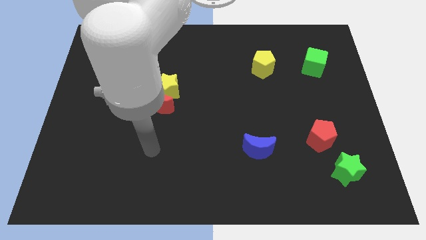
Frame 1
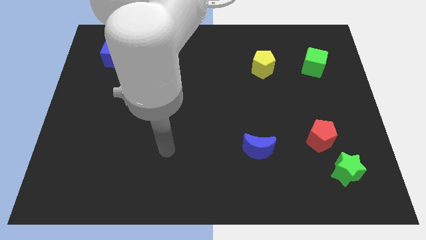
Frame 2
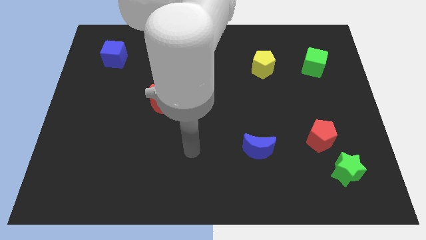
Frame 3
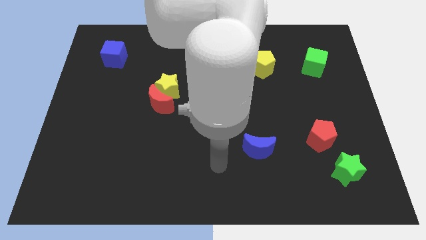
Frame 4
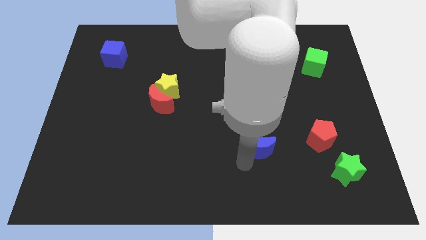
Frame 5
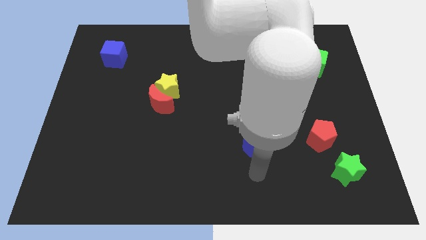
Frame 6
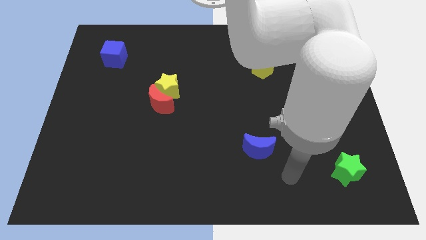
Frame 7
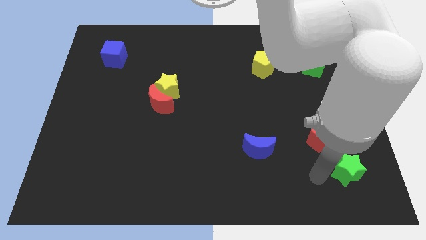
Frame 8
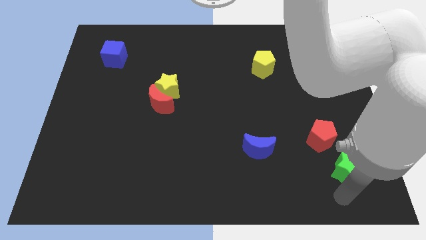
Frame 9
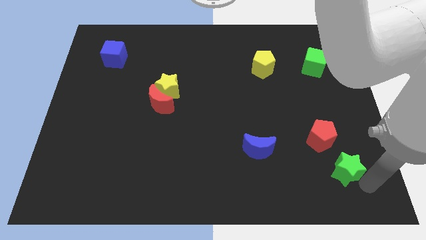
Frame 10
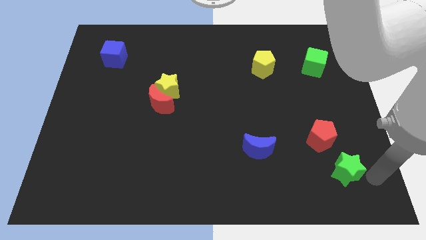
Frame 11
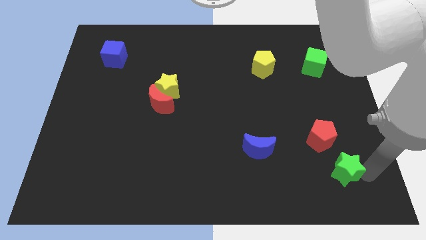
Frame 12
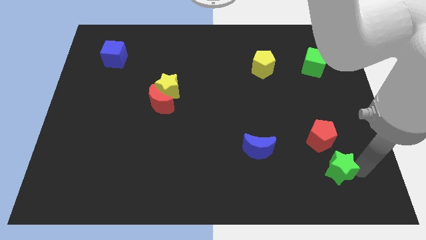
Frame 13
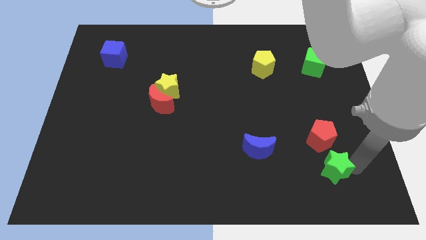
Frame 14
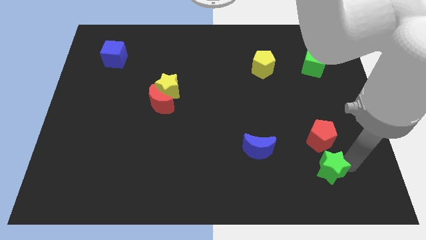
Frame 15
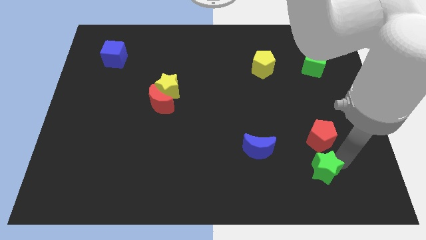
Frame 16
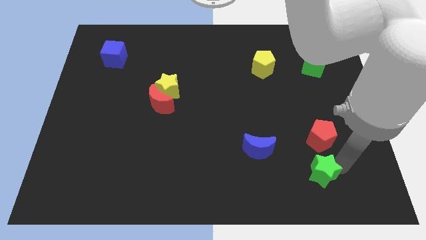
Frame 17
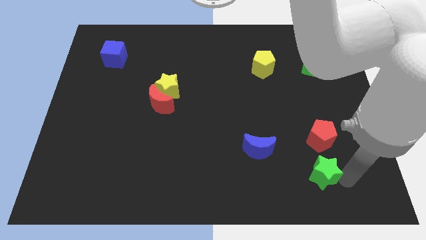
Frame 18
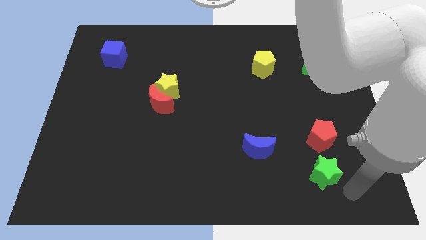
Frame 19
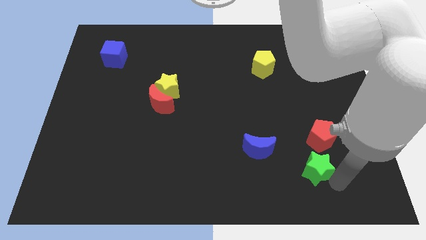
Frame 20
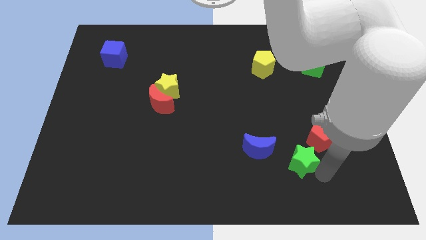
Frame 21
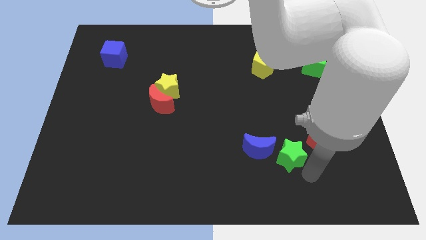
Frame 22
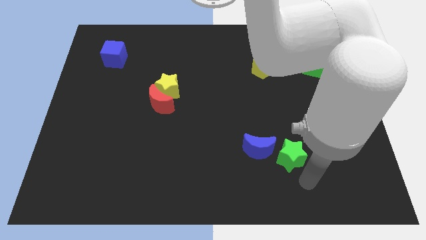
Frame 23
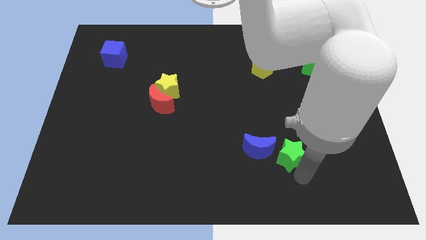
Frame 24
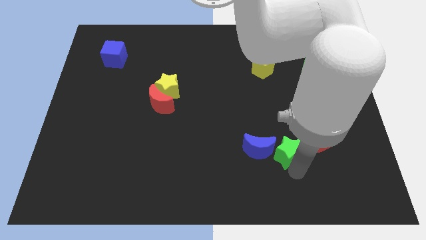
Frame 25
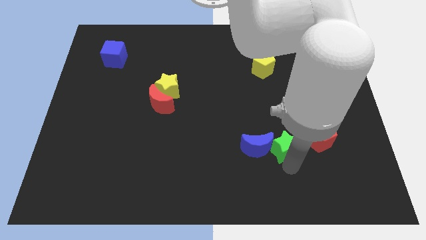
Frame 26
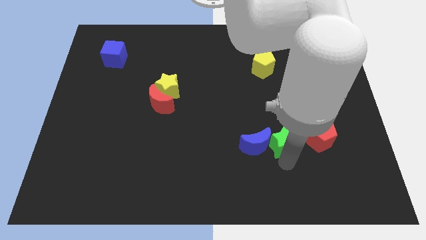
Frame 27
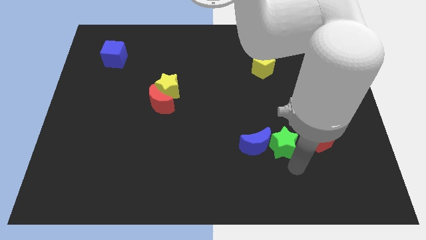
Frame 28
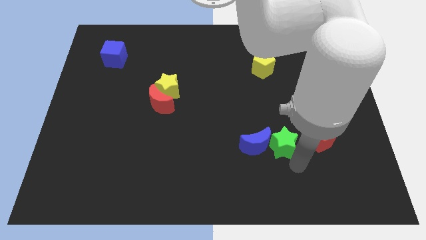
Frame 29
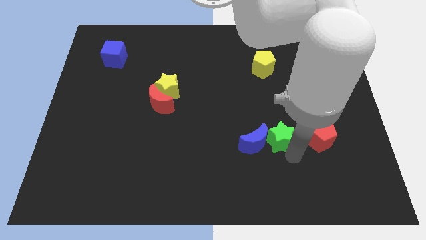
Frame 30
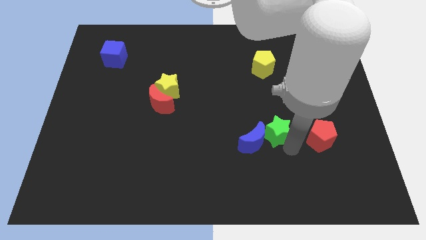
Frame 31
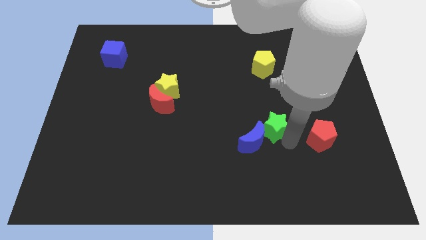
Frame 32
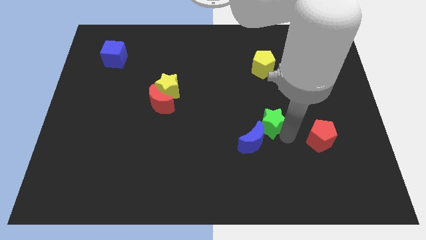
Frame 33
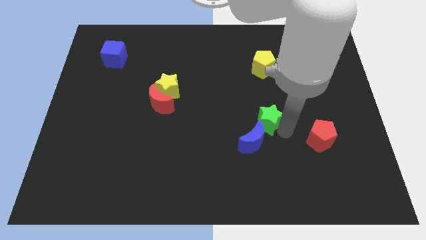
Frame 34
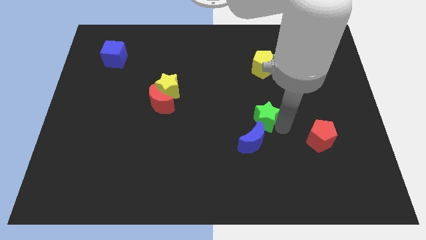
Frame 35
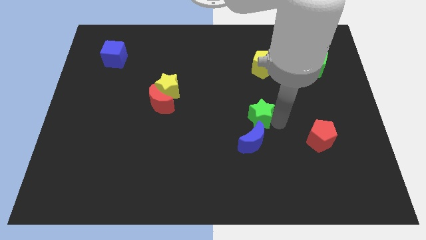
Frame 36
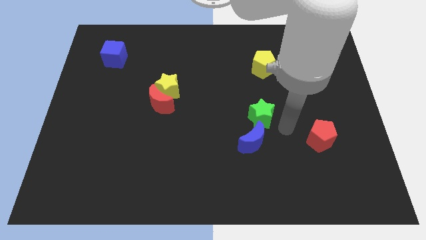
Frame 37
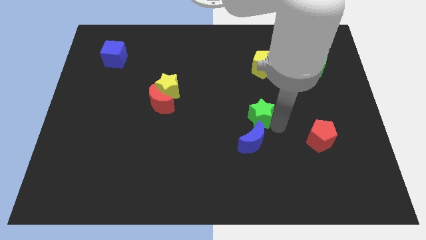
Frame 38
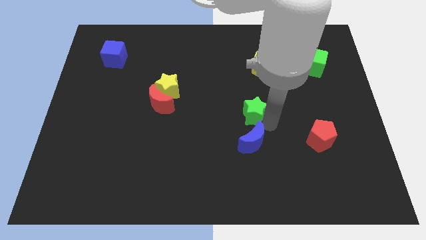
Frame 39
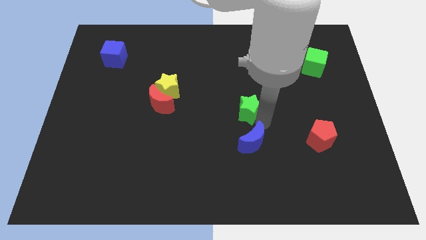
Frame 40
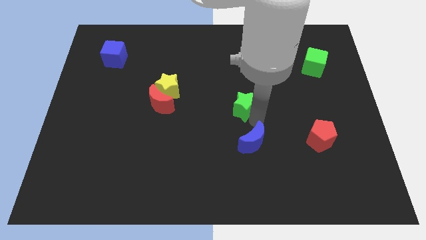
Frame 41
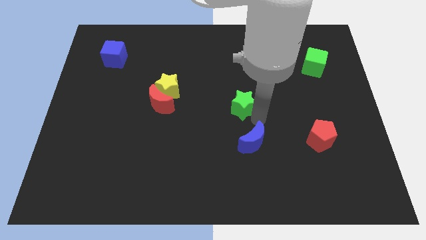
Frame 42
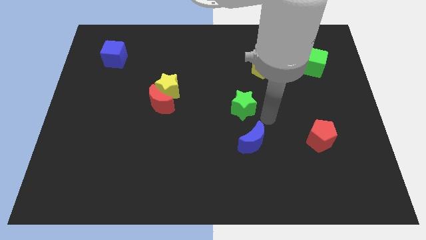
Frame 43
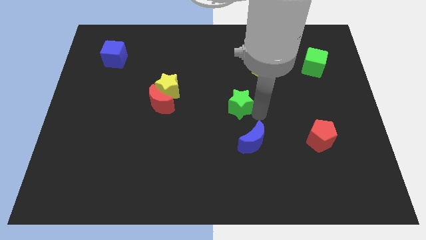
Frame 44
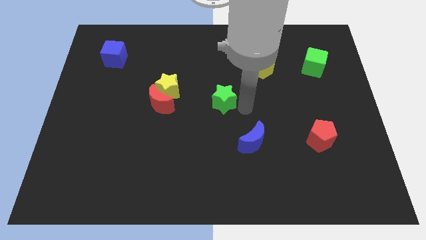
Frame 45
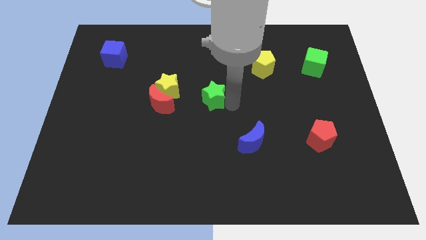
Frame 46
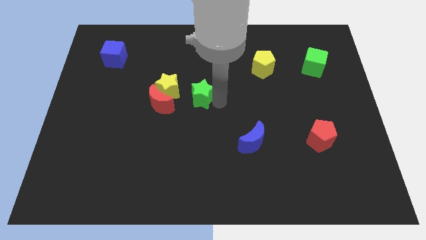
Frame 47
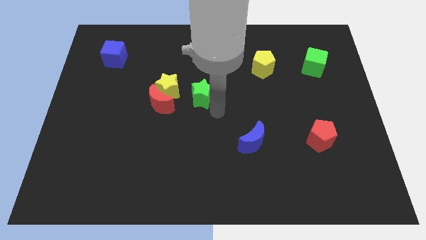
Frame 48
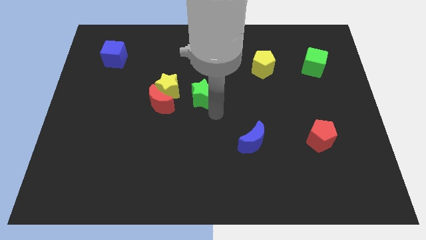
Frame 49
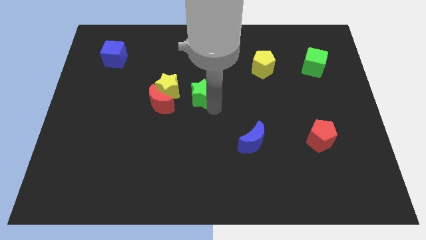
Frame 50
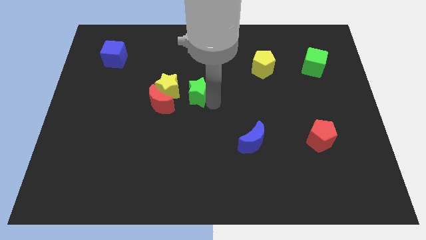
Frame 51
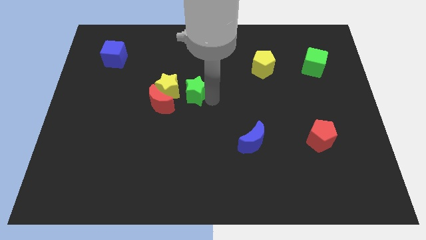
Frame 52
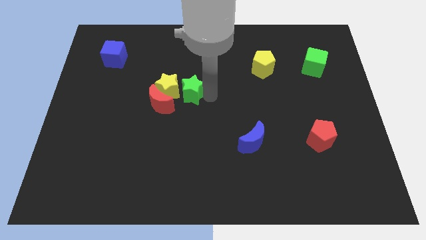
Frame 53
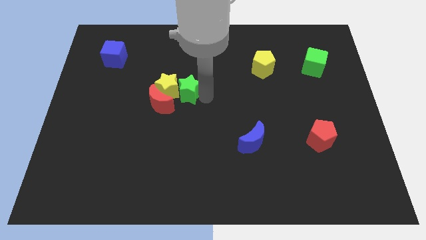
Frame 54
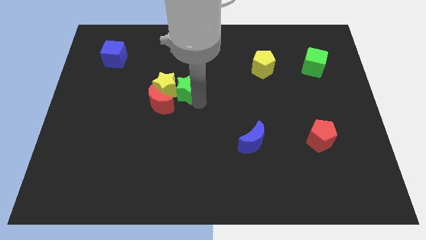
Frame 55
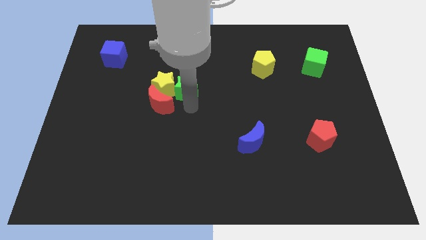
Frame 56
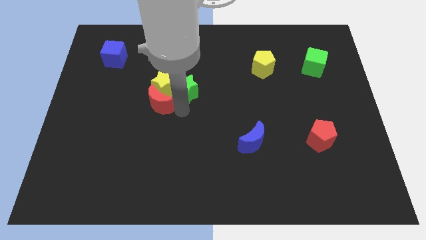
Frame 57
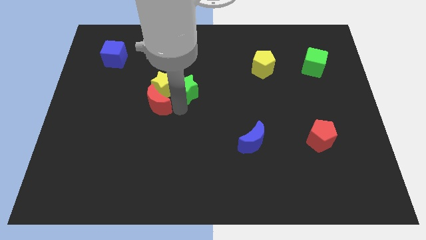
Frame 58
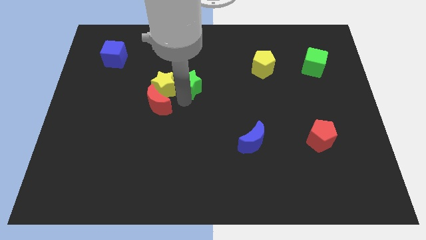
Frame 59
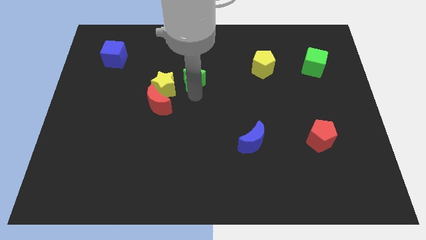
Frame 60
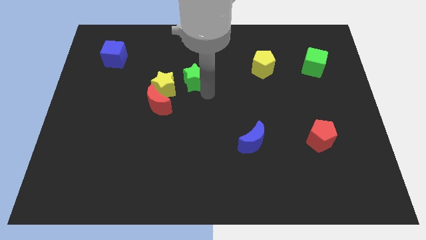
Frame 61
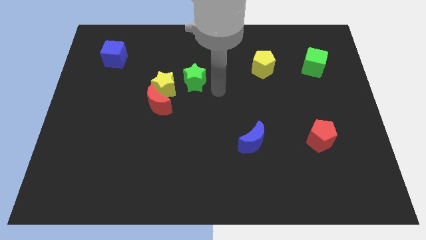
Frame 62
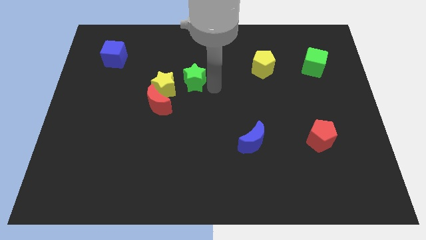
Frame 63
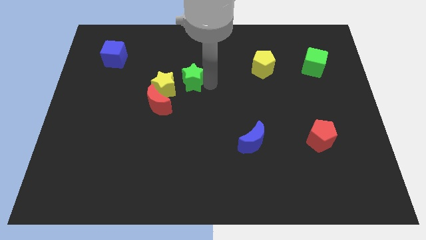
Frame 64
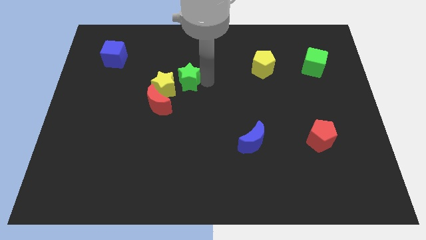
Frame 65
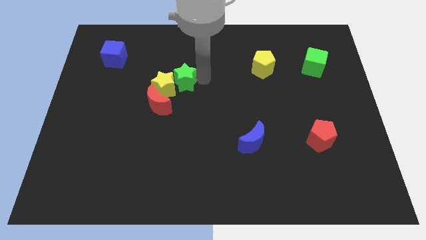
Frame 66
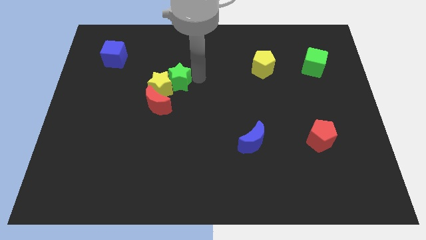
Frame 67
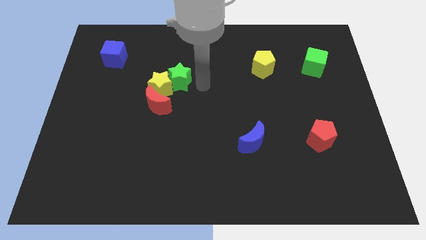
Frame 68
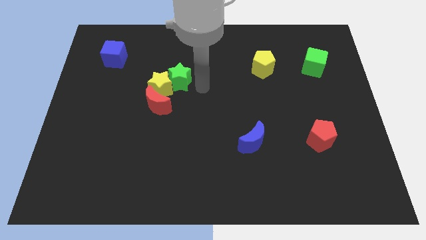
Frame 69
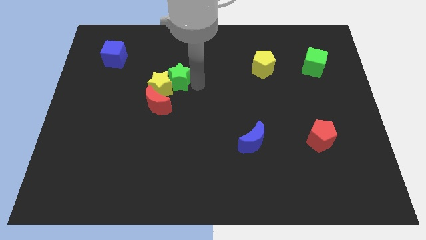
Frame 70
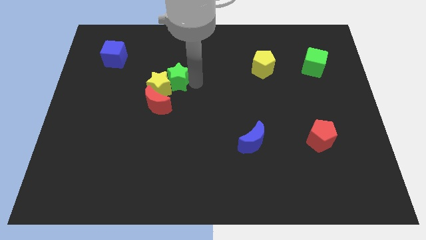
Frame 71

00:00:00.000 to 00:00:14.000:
move the green star above the red moon

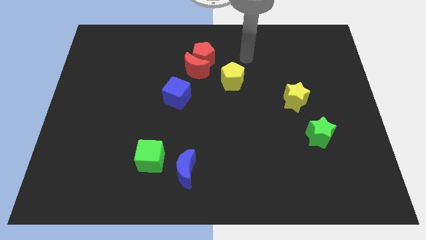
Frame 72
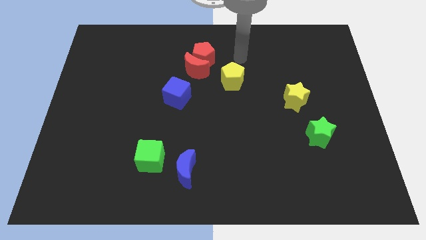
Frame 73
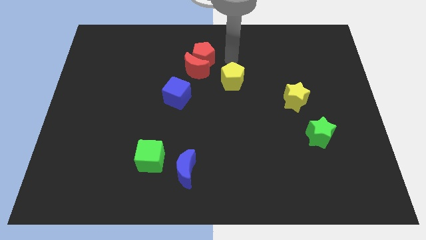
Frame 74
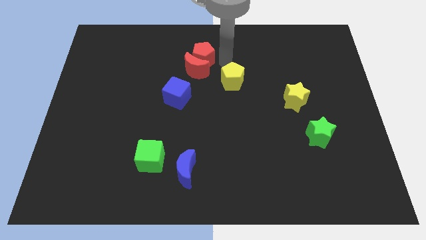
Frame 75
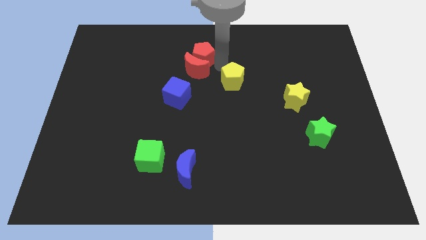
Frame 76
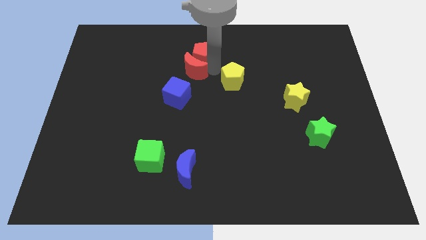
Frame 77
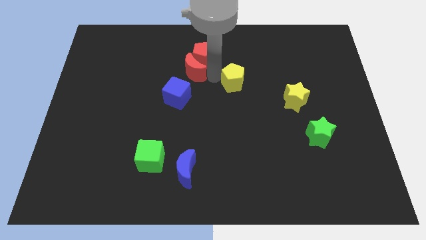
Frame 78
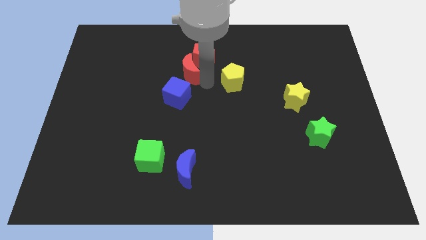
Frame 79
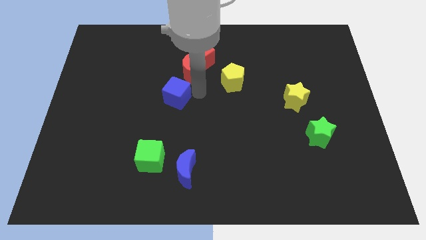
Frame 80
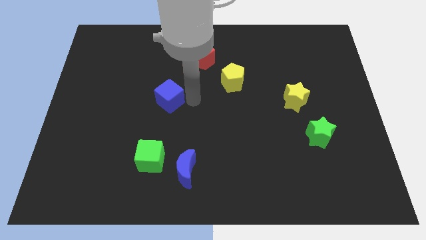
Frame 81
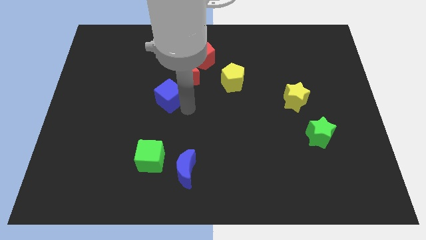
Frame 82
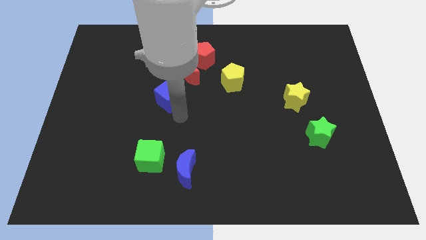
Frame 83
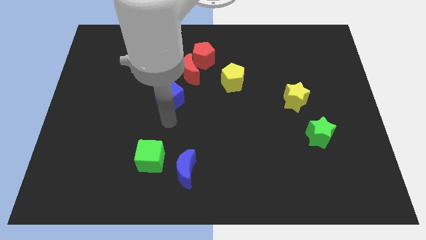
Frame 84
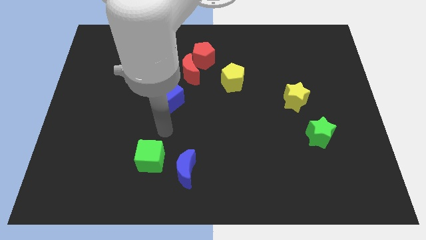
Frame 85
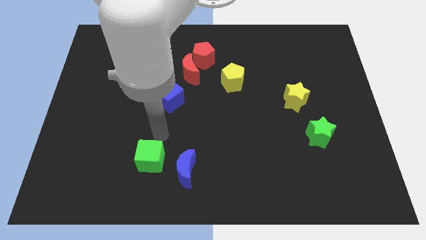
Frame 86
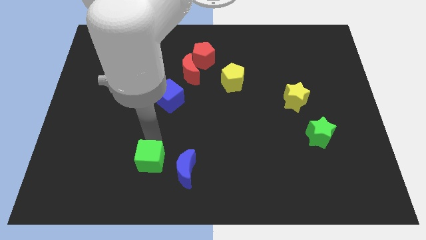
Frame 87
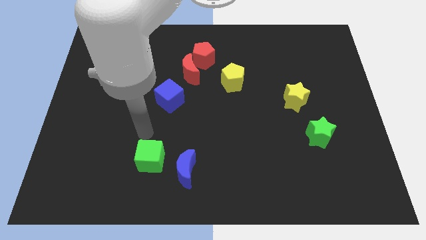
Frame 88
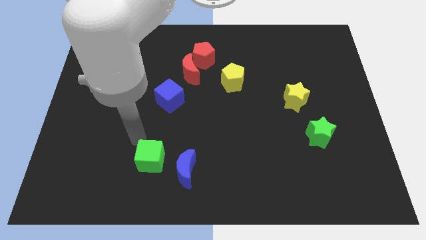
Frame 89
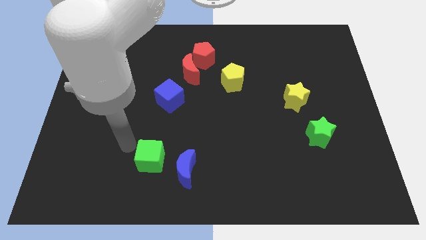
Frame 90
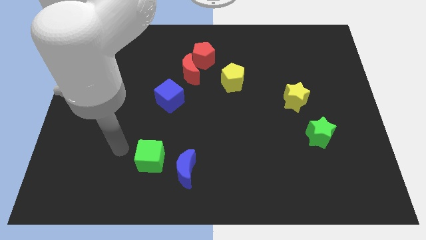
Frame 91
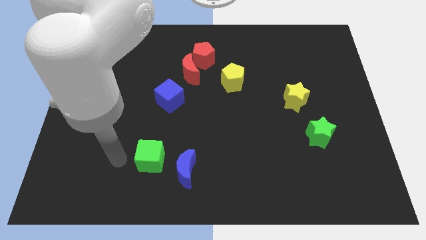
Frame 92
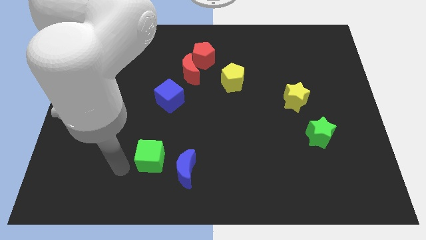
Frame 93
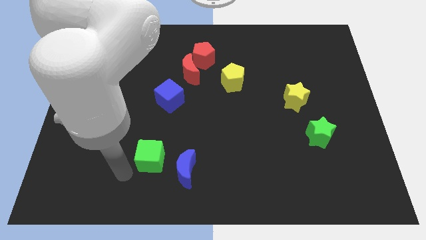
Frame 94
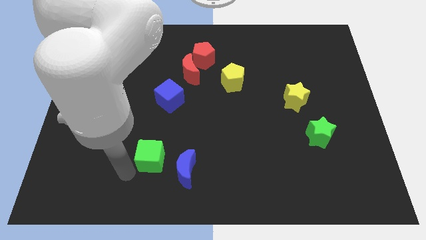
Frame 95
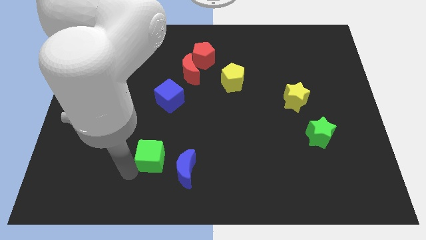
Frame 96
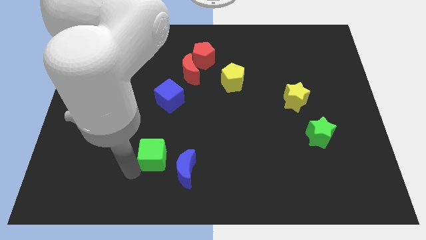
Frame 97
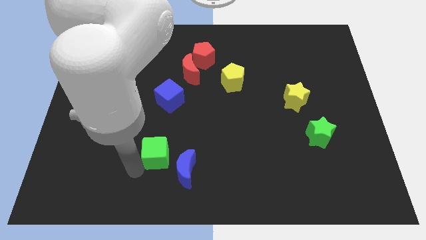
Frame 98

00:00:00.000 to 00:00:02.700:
put the green cube to the bottom side of the blue cube
